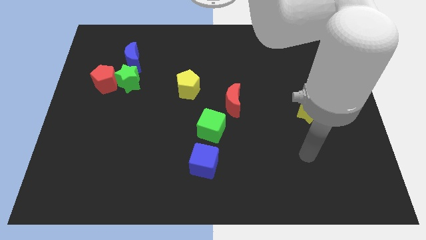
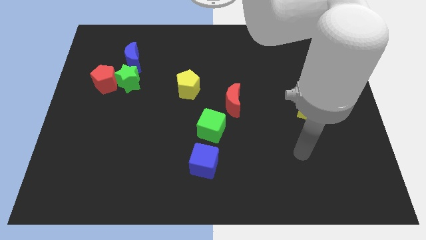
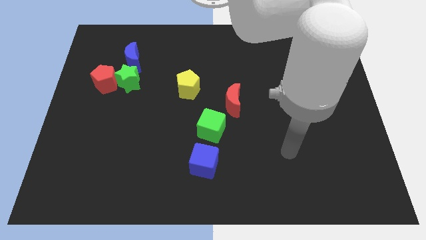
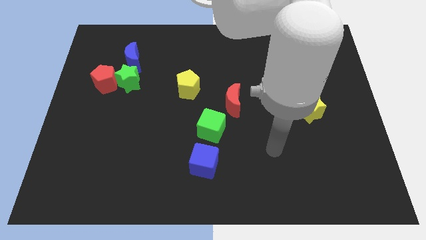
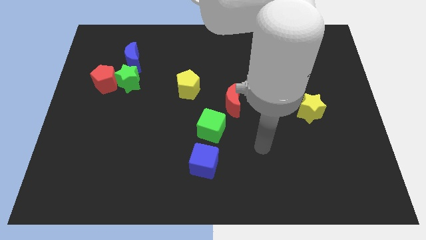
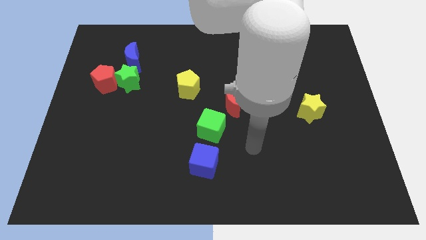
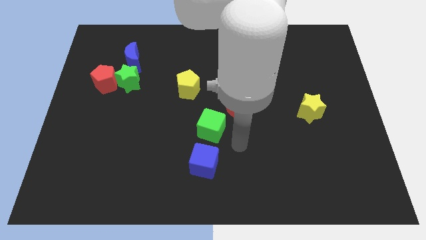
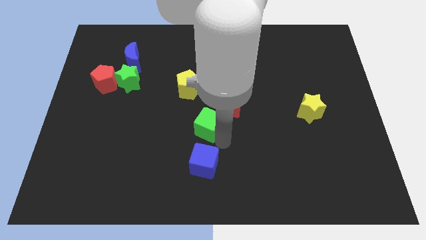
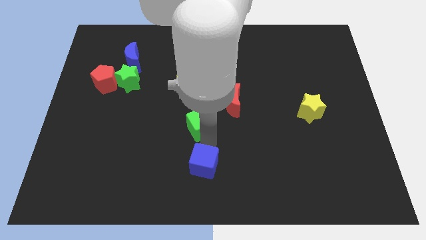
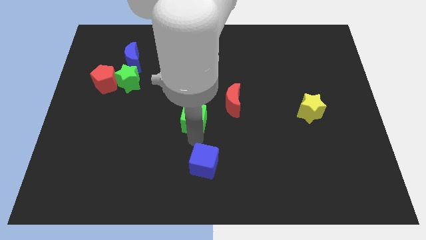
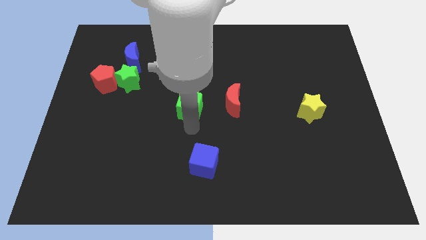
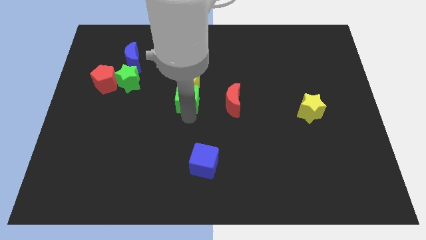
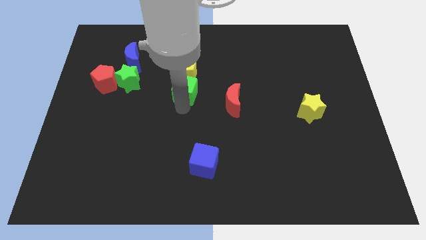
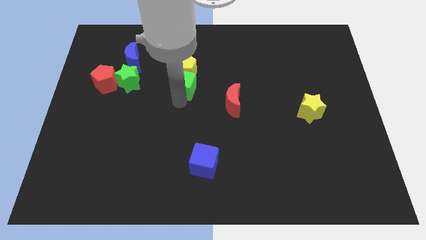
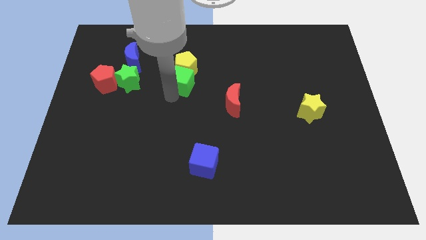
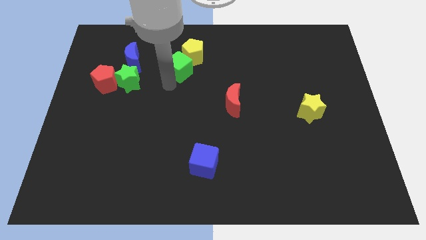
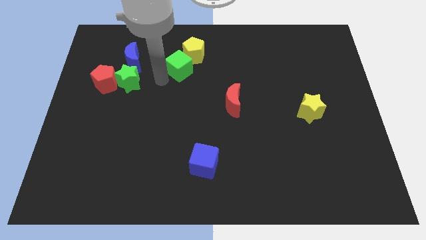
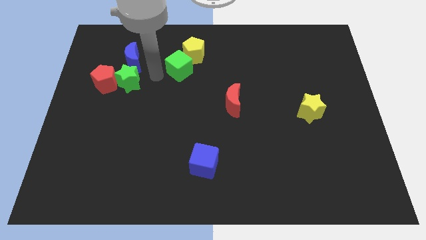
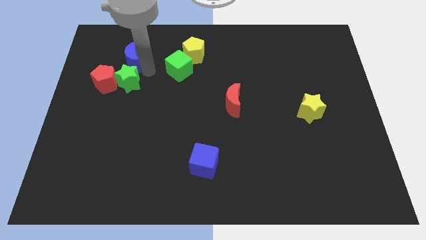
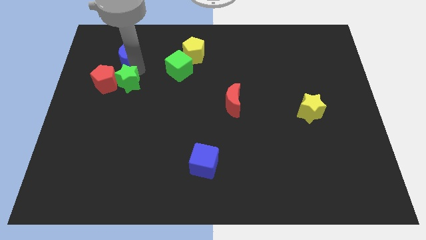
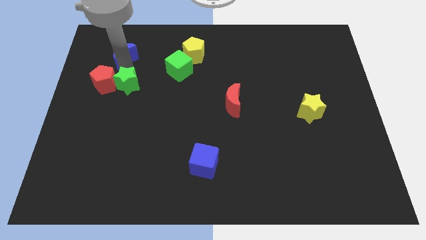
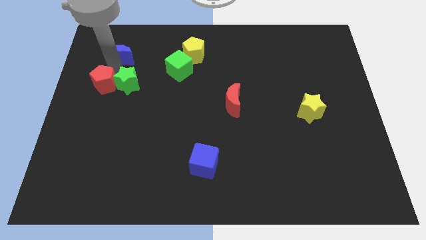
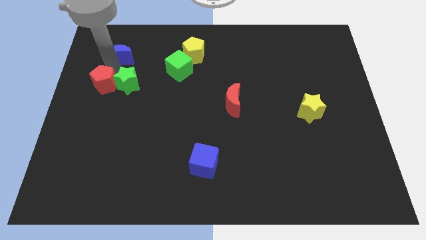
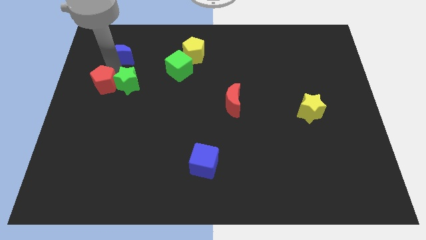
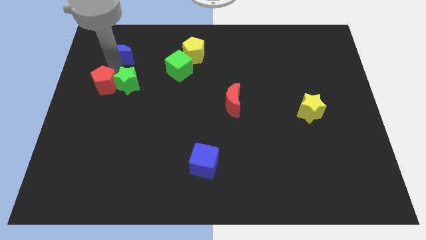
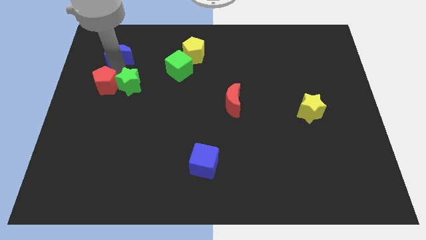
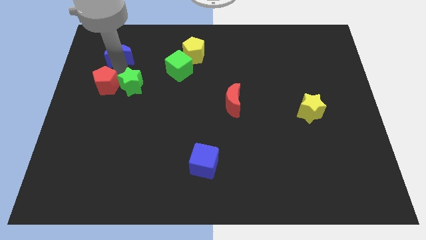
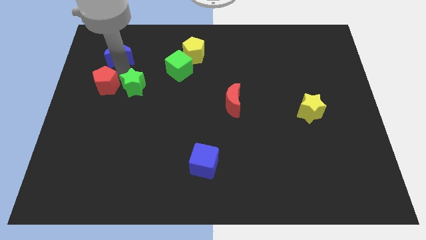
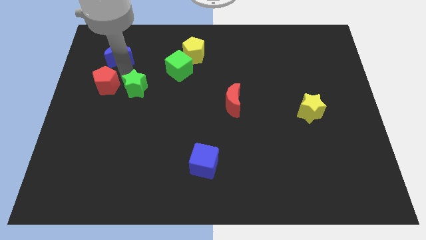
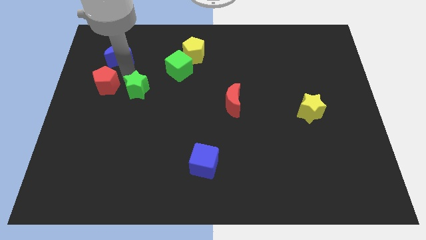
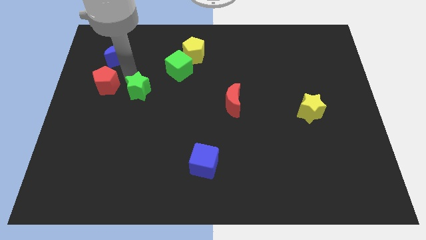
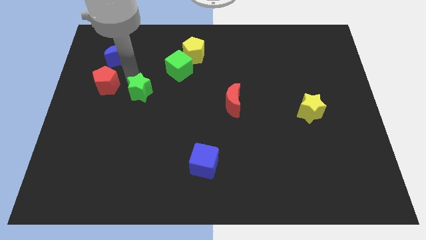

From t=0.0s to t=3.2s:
move the green star away from the red pentagon and blue moon

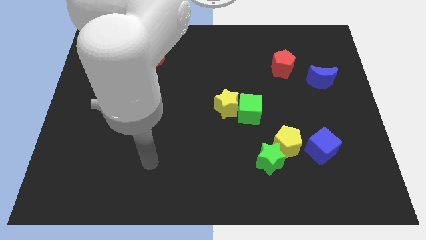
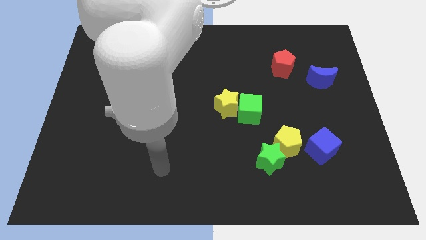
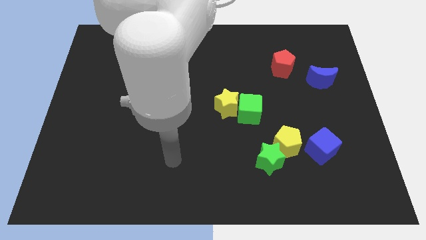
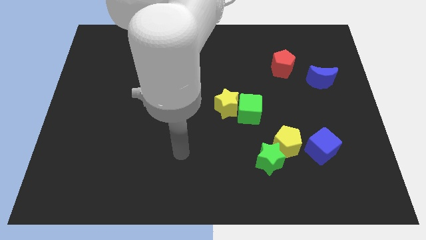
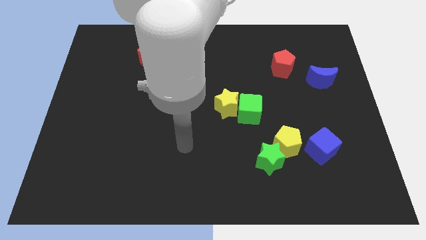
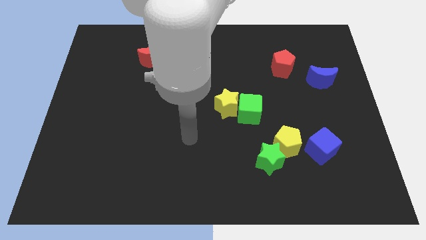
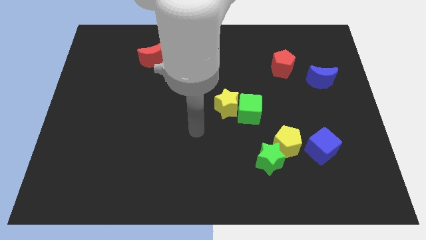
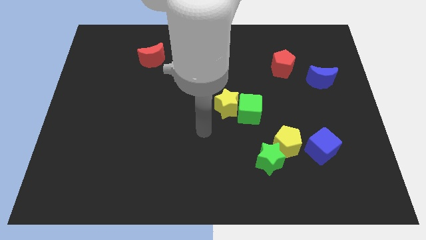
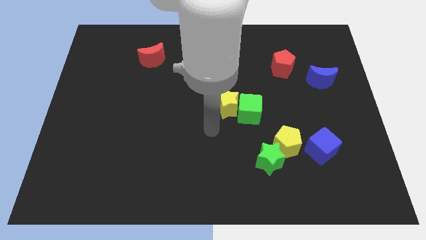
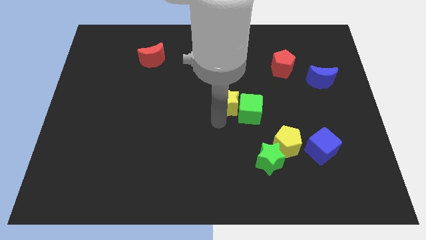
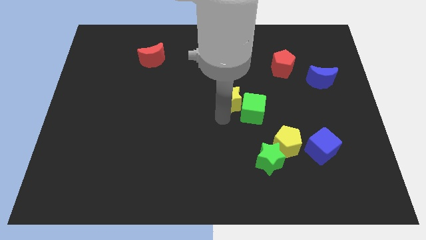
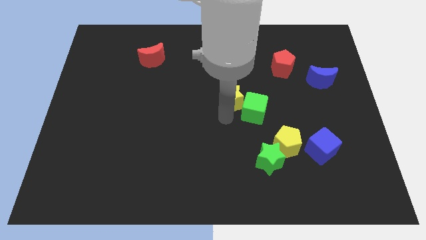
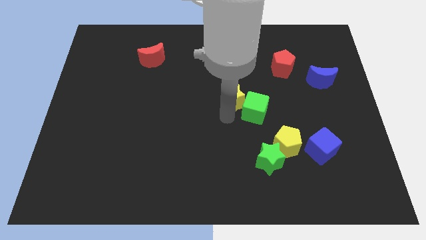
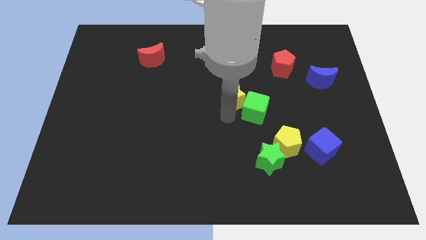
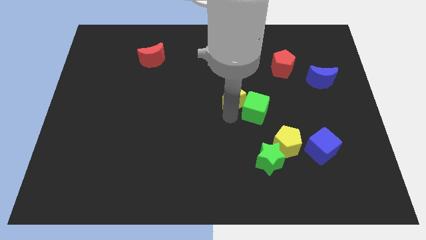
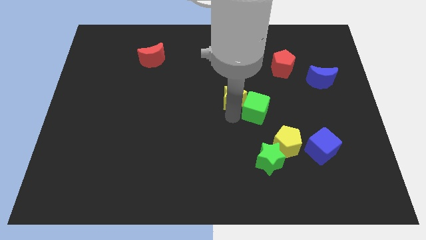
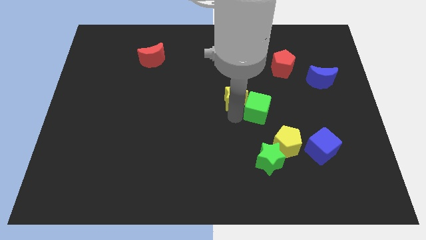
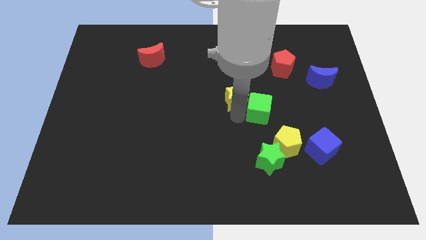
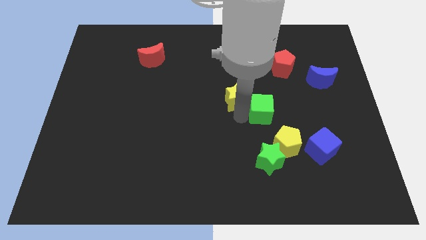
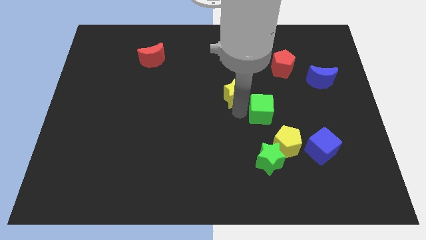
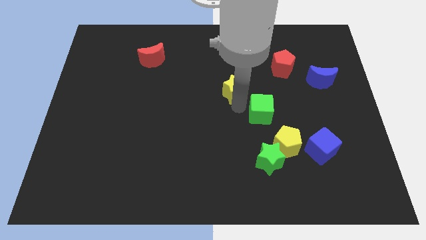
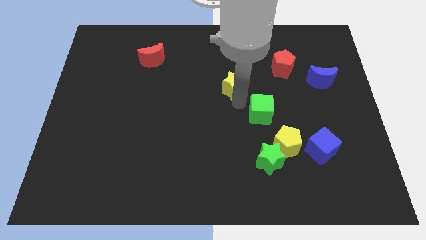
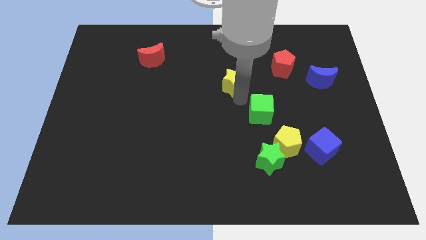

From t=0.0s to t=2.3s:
pull the green cube apart from the yellow star

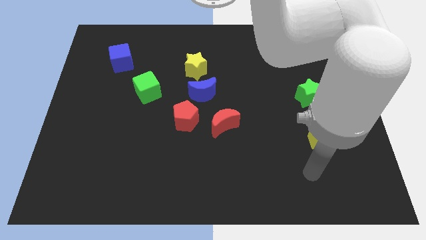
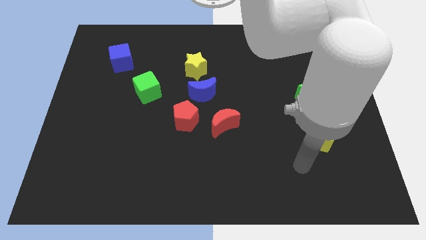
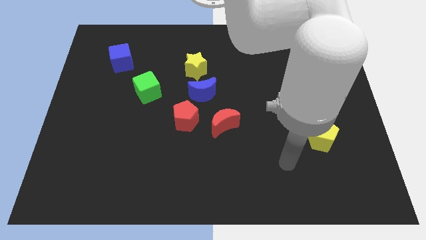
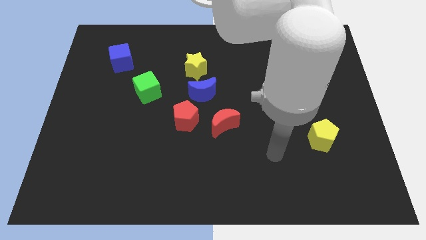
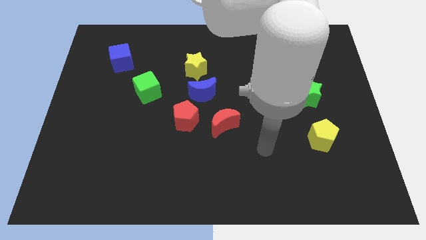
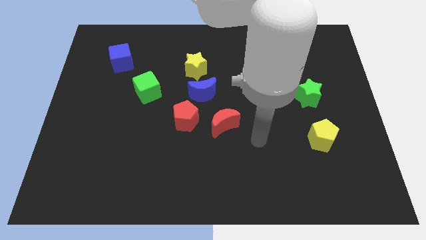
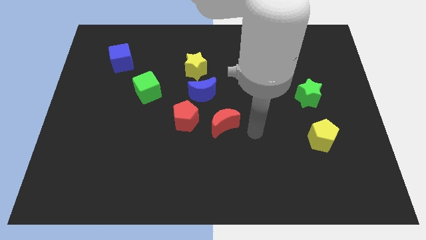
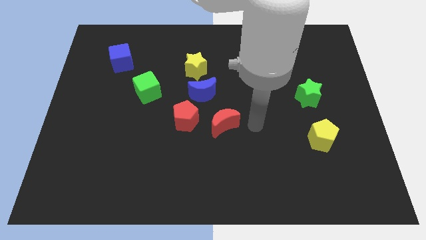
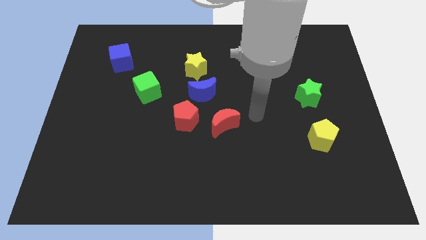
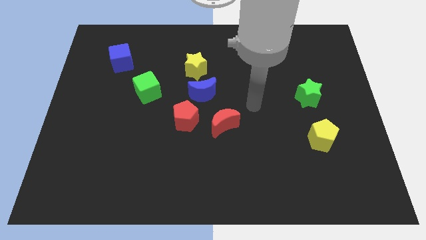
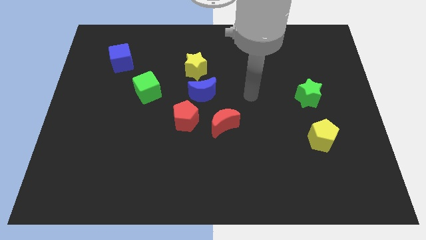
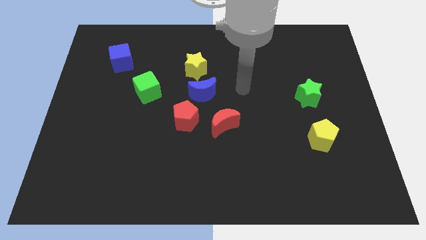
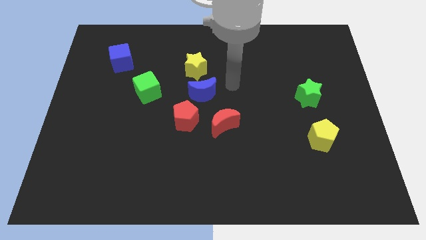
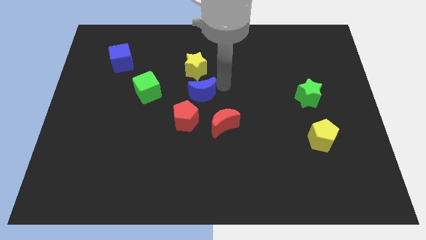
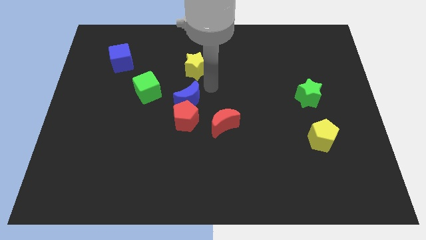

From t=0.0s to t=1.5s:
separate the yellow star from the blue moon

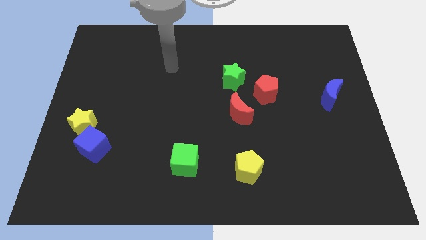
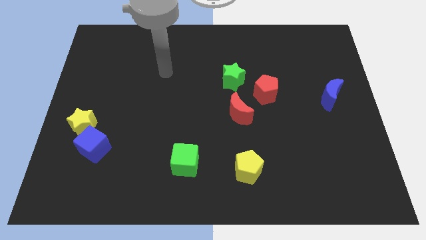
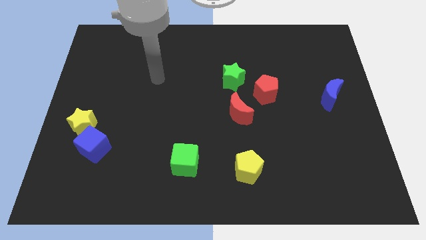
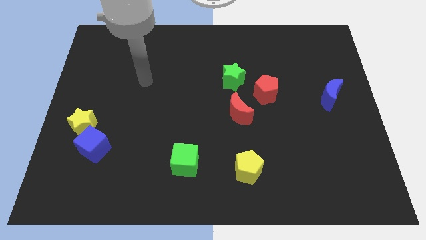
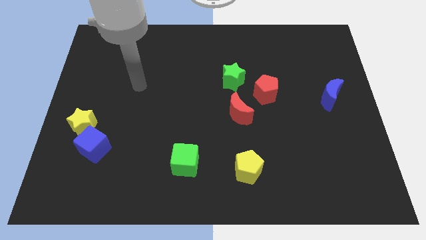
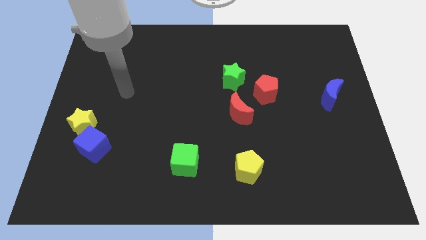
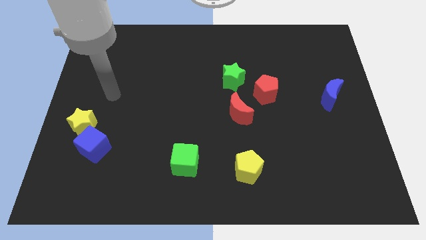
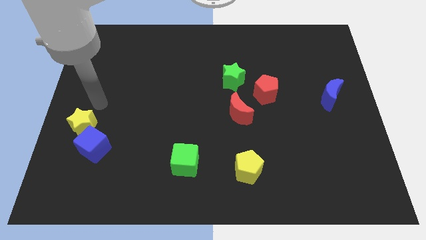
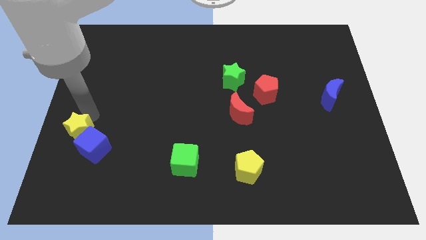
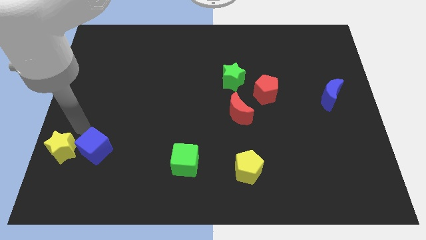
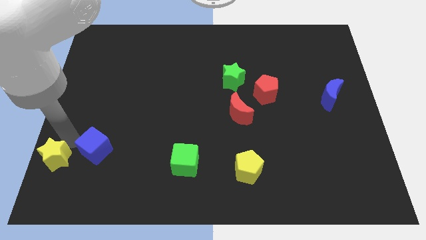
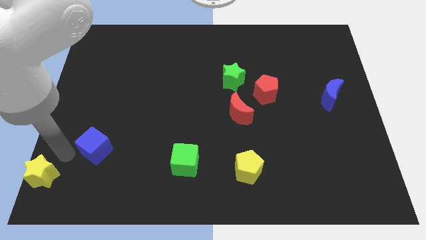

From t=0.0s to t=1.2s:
pull the blue cube apart from the yellow star

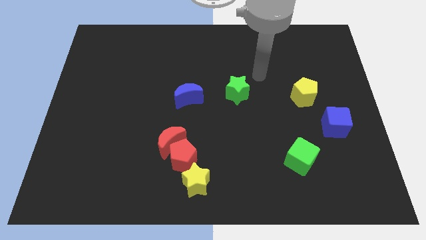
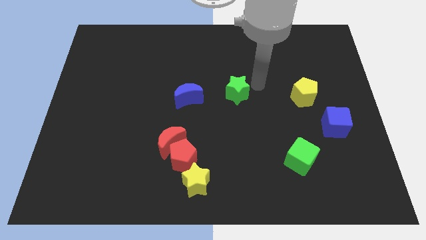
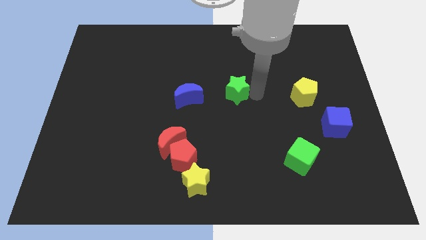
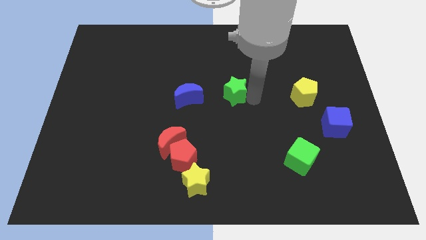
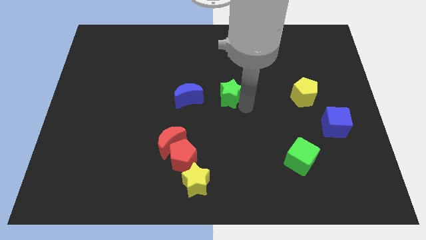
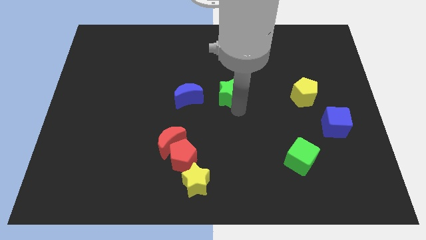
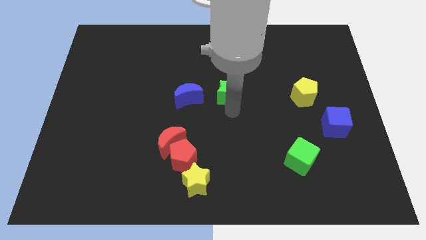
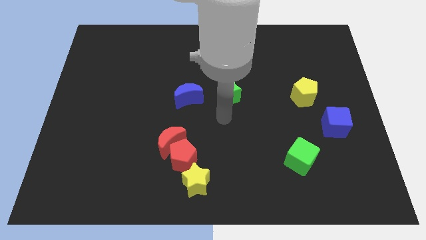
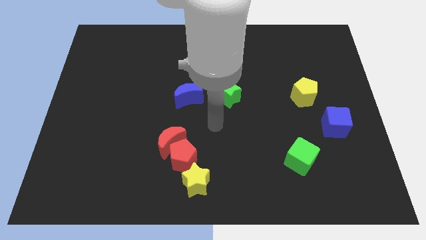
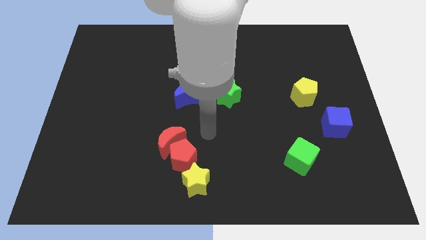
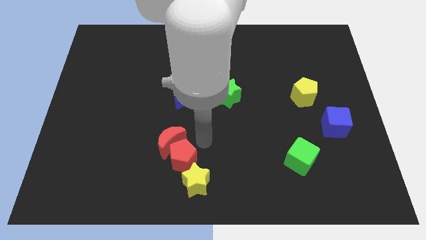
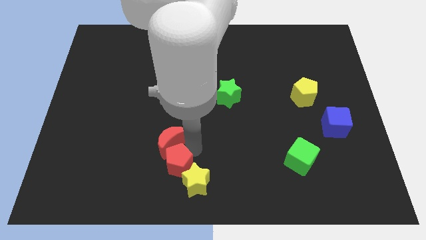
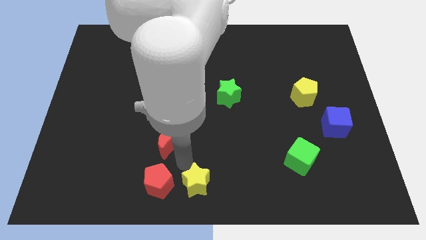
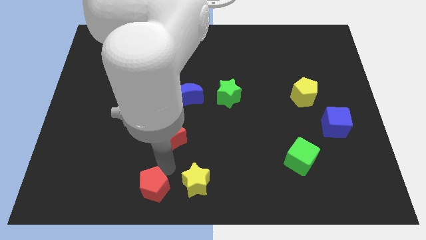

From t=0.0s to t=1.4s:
separate the red moon from the red pentagon
